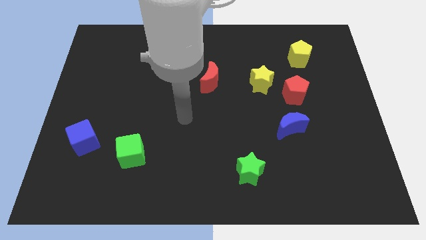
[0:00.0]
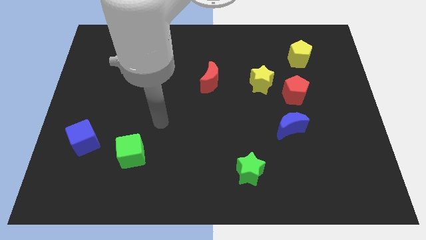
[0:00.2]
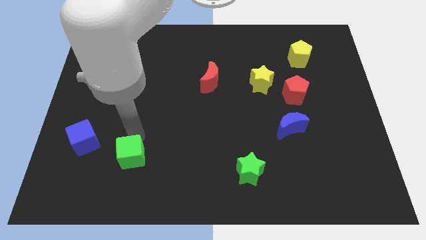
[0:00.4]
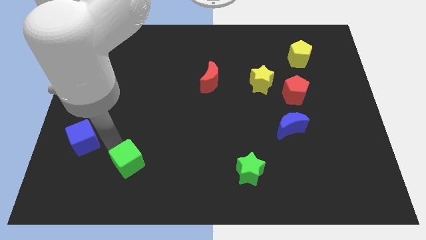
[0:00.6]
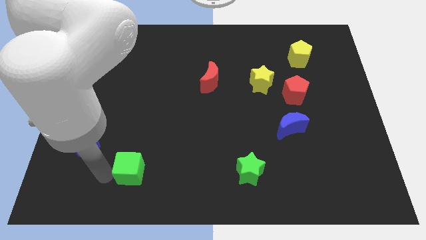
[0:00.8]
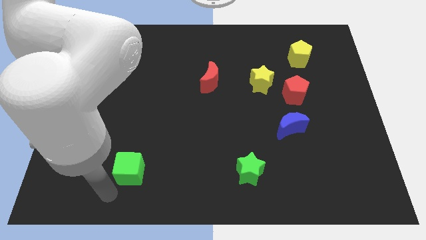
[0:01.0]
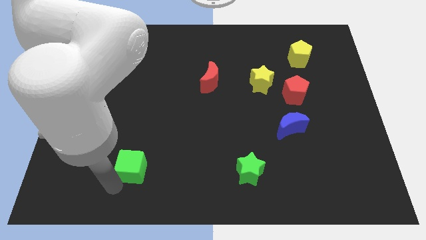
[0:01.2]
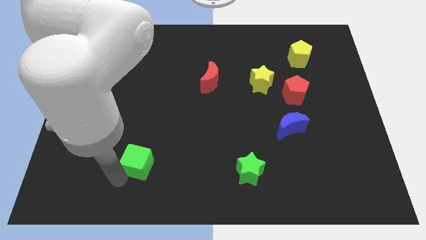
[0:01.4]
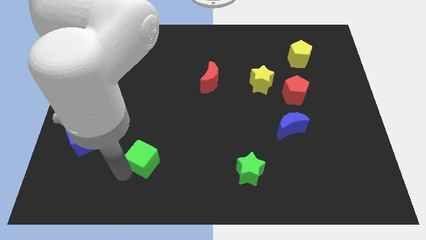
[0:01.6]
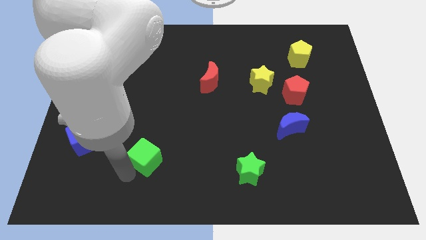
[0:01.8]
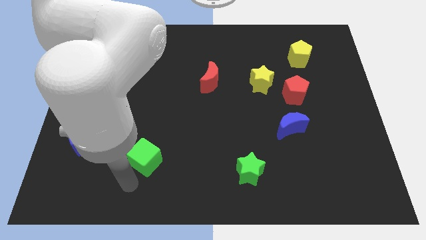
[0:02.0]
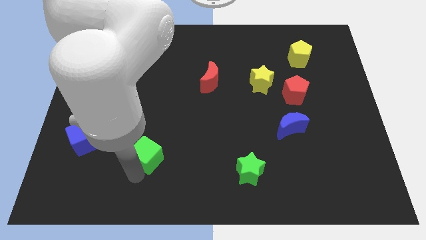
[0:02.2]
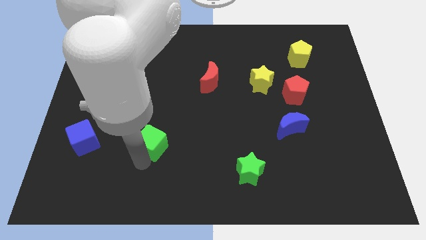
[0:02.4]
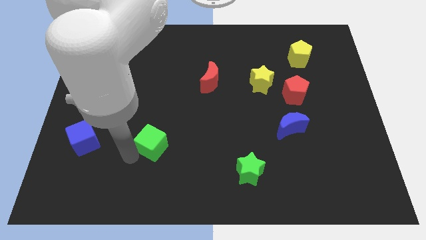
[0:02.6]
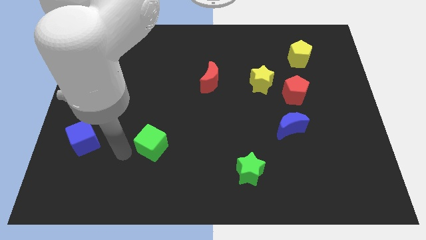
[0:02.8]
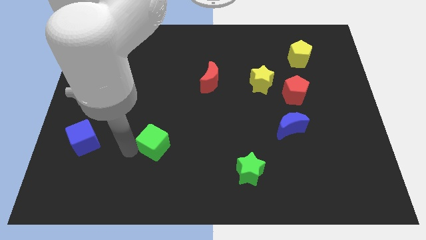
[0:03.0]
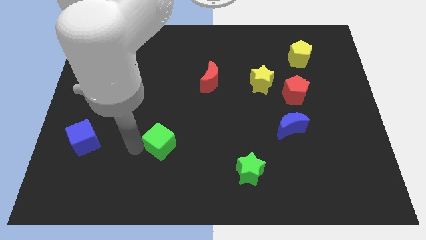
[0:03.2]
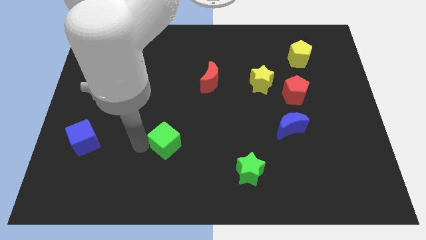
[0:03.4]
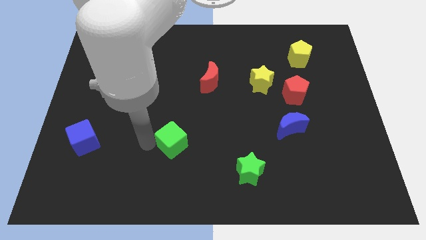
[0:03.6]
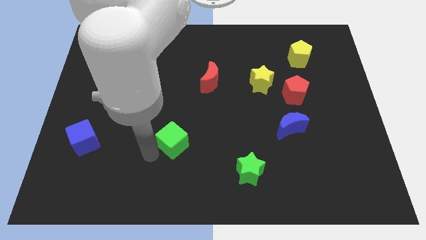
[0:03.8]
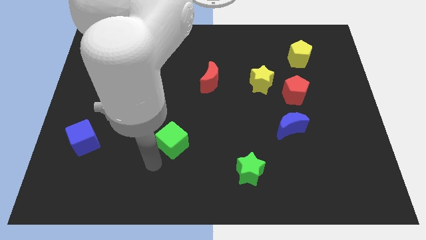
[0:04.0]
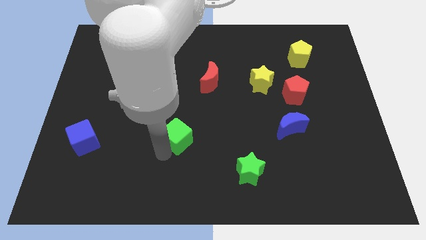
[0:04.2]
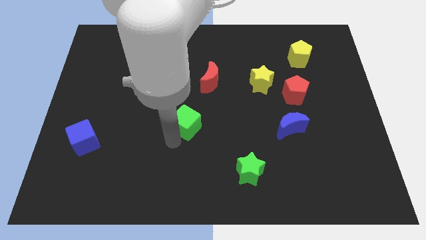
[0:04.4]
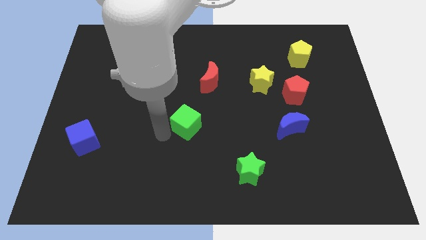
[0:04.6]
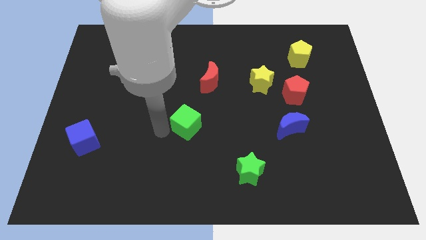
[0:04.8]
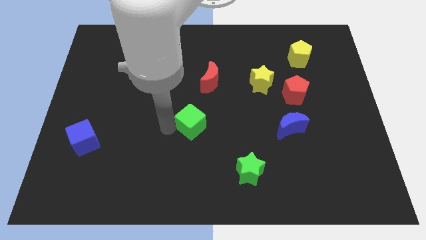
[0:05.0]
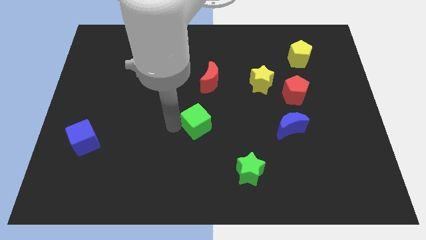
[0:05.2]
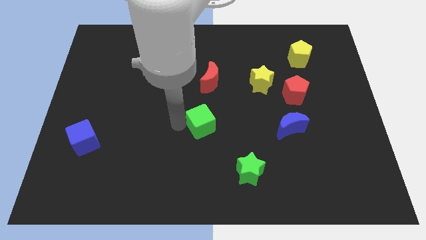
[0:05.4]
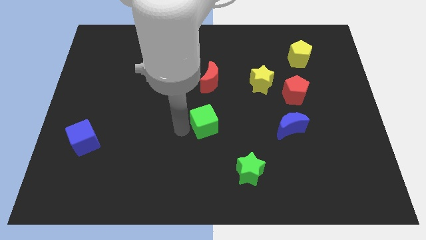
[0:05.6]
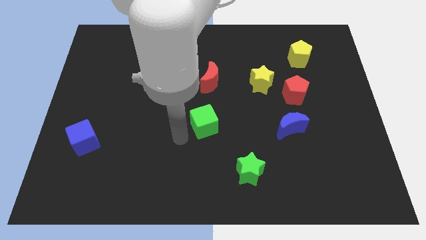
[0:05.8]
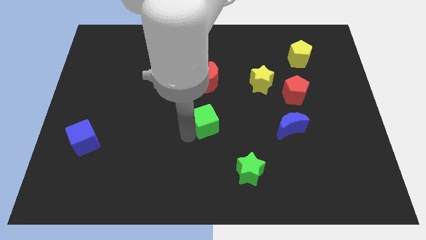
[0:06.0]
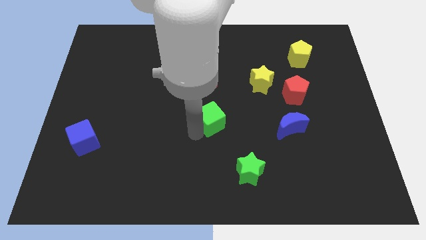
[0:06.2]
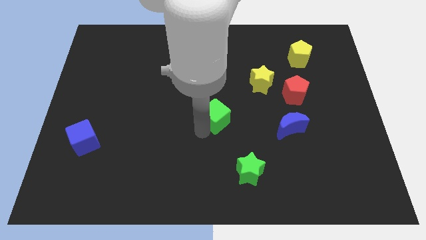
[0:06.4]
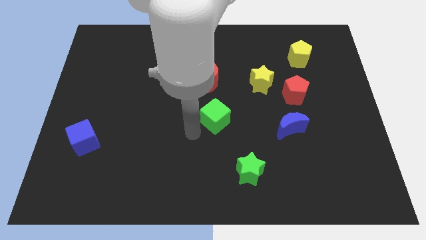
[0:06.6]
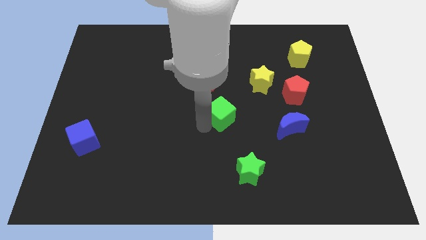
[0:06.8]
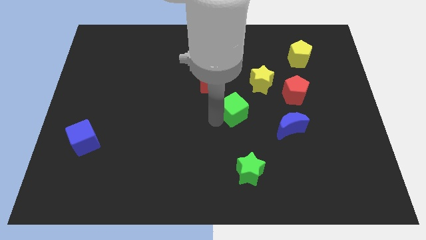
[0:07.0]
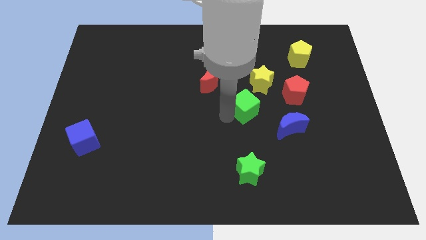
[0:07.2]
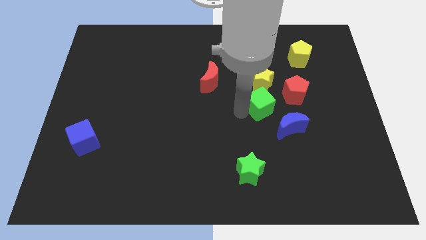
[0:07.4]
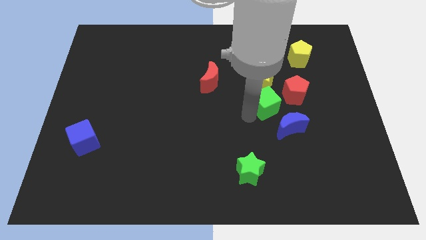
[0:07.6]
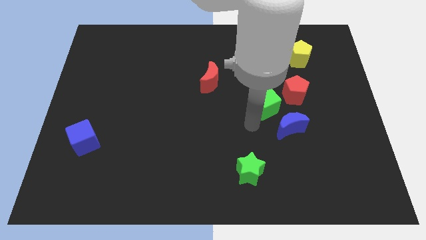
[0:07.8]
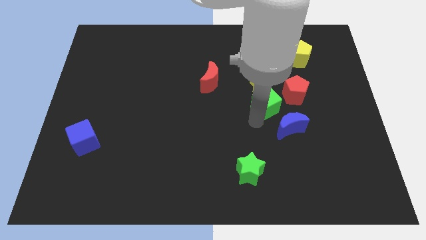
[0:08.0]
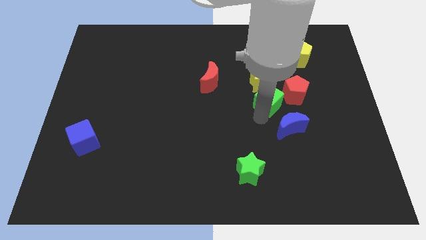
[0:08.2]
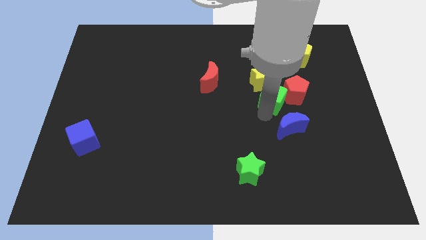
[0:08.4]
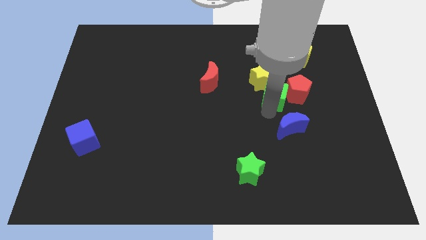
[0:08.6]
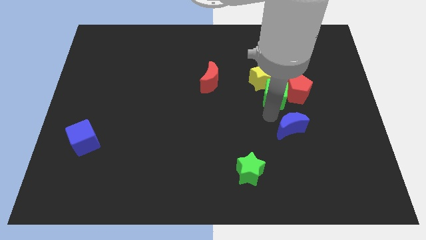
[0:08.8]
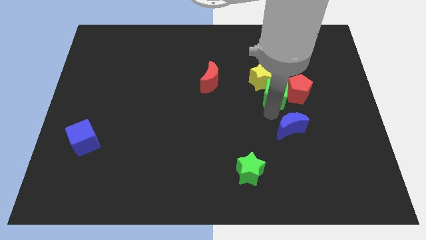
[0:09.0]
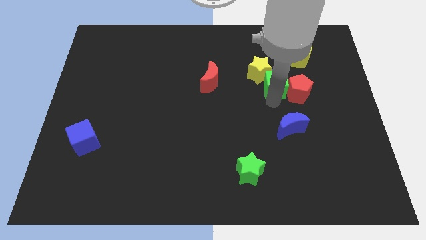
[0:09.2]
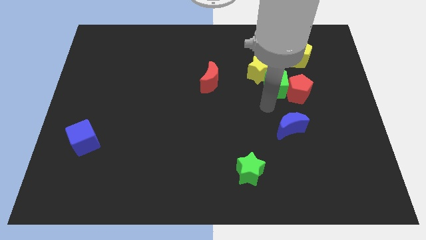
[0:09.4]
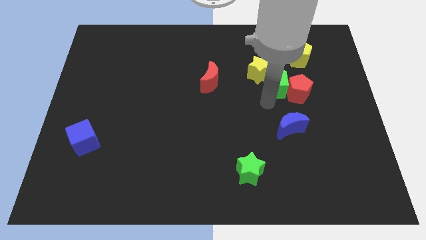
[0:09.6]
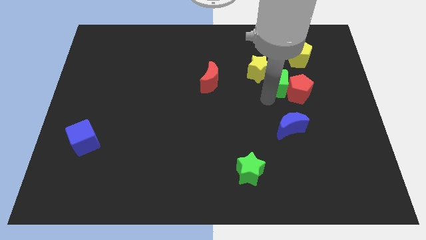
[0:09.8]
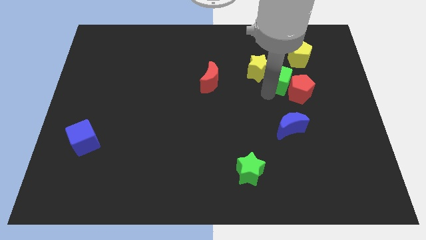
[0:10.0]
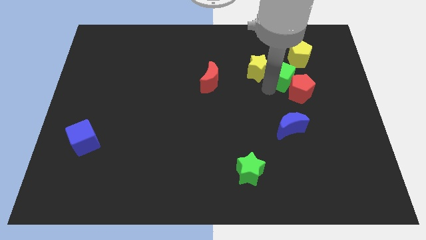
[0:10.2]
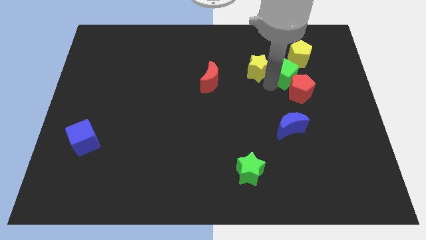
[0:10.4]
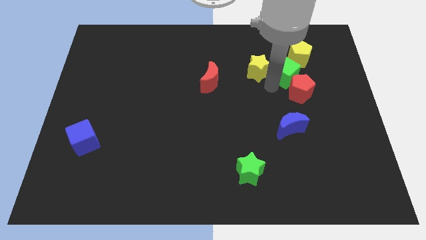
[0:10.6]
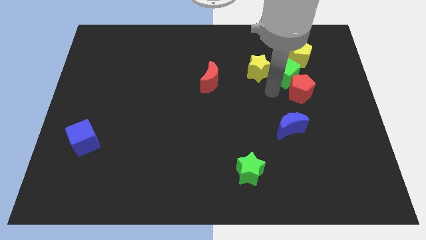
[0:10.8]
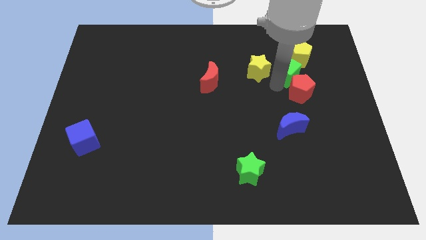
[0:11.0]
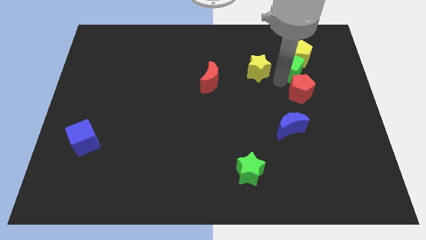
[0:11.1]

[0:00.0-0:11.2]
move the green cube close to the yellow pentagon

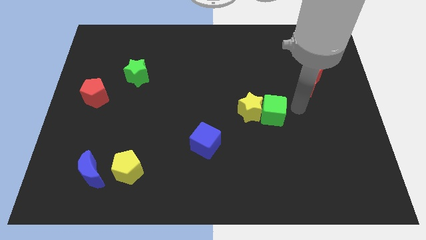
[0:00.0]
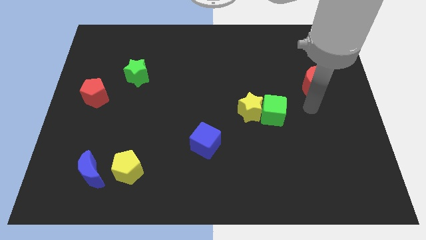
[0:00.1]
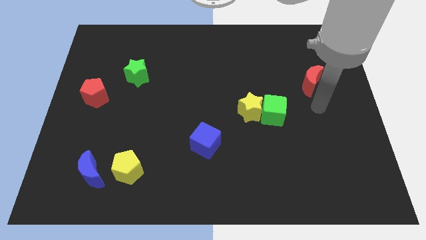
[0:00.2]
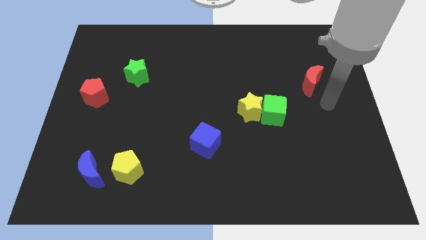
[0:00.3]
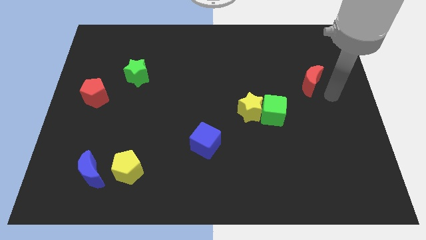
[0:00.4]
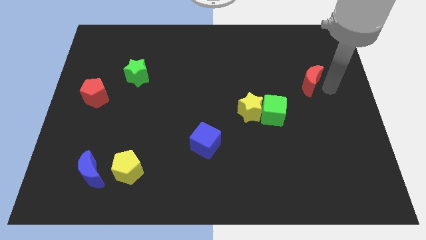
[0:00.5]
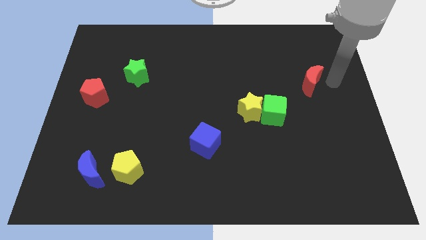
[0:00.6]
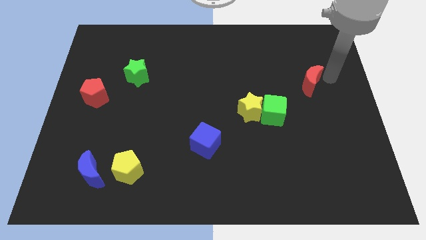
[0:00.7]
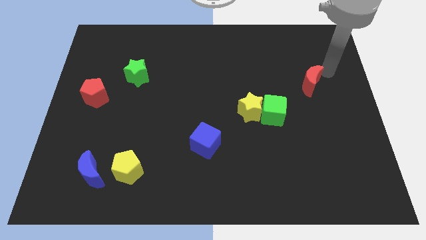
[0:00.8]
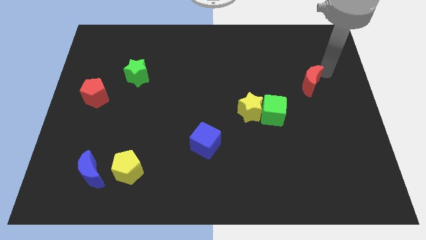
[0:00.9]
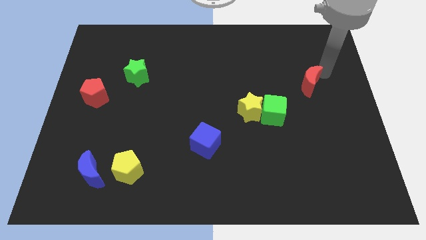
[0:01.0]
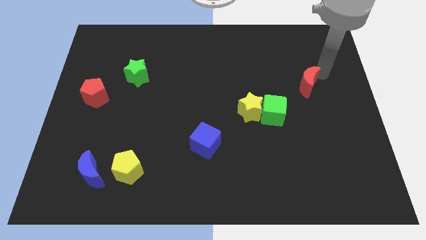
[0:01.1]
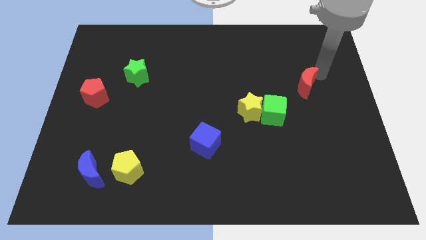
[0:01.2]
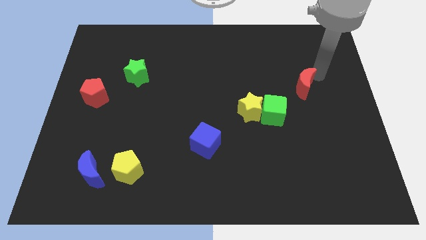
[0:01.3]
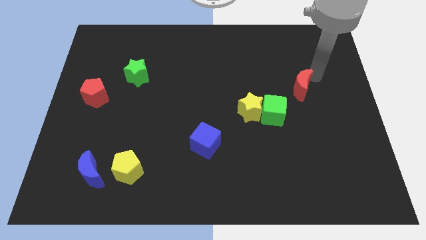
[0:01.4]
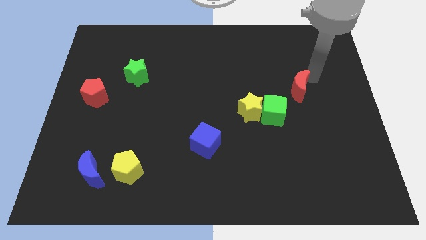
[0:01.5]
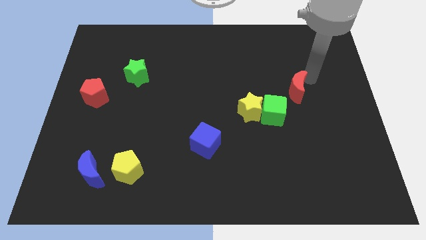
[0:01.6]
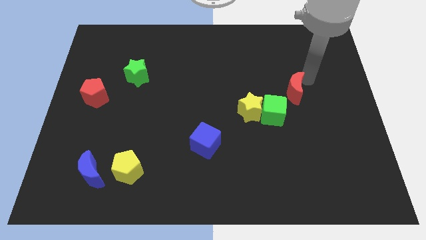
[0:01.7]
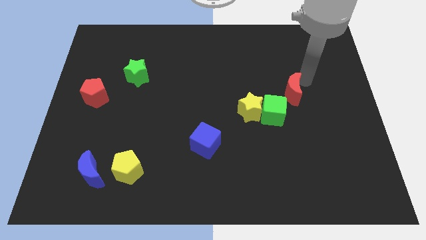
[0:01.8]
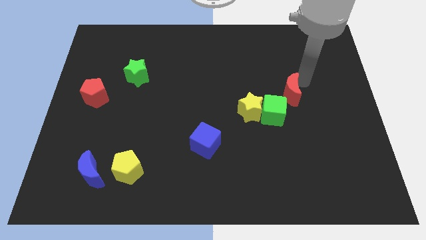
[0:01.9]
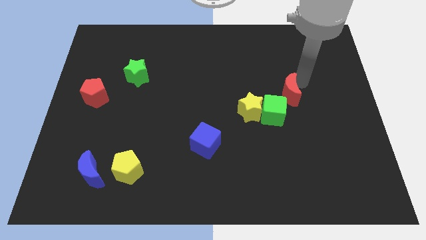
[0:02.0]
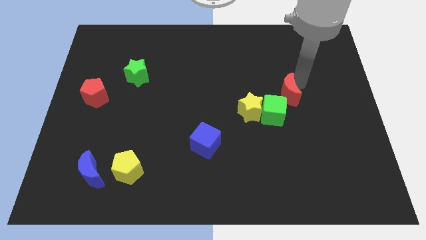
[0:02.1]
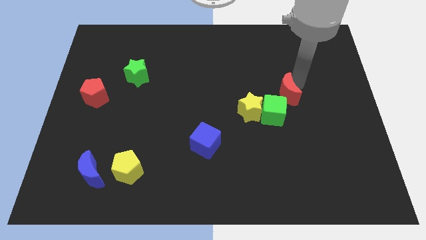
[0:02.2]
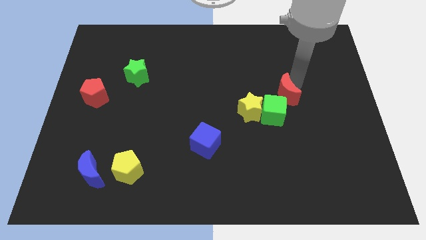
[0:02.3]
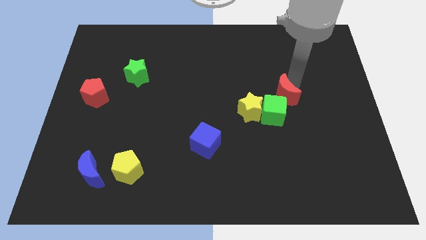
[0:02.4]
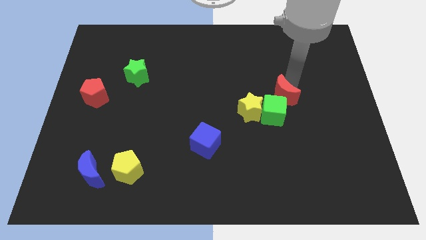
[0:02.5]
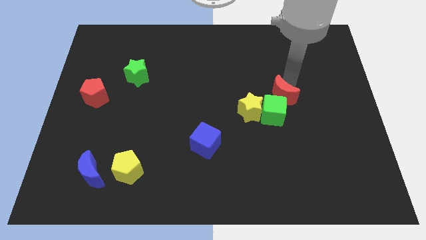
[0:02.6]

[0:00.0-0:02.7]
slide the red moon close to the green cube
